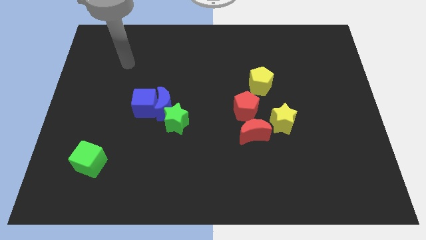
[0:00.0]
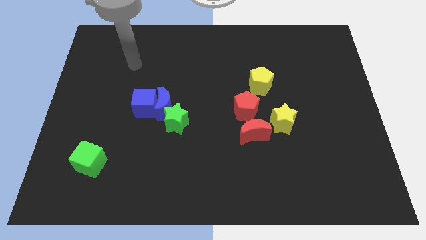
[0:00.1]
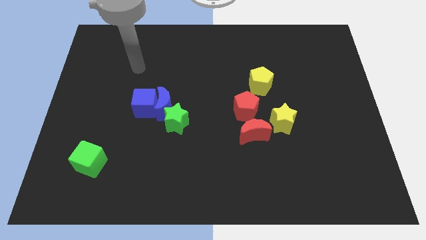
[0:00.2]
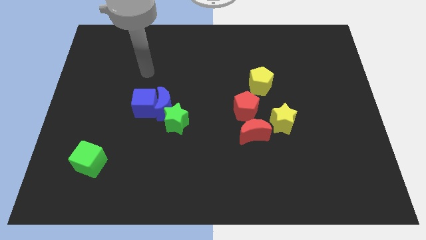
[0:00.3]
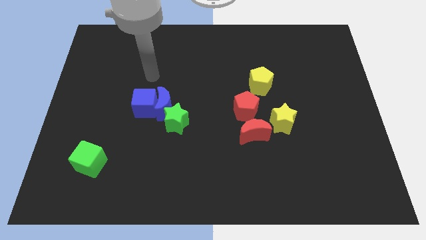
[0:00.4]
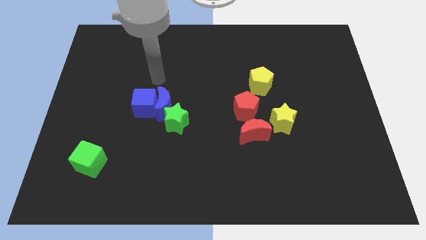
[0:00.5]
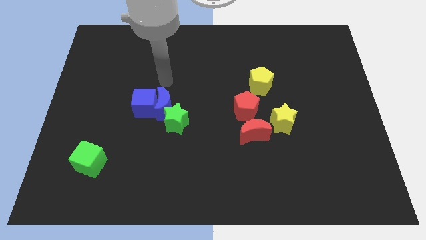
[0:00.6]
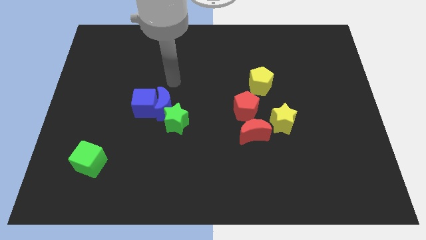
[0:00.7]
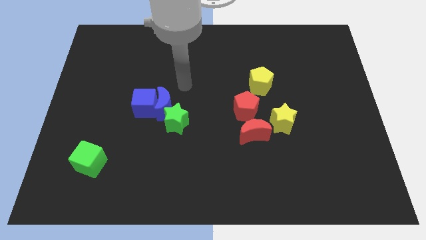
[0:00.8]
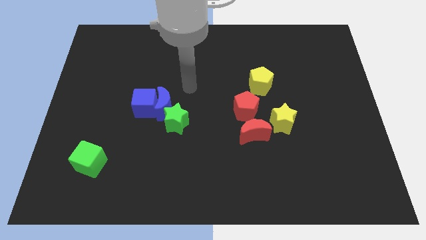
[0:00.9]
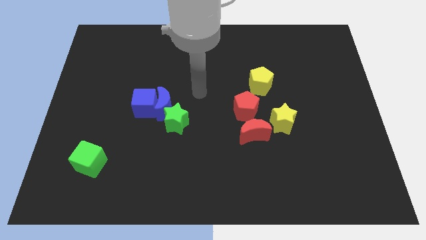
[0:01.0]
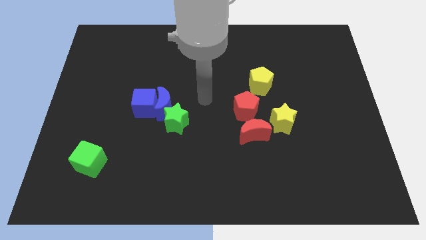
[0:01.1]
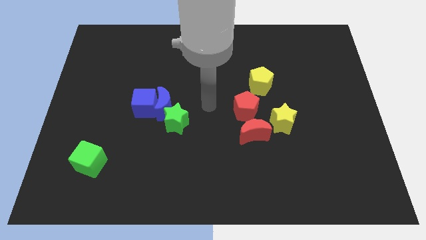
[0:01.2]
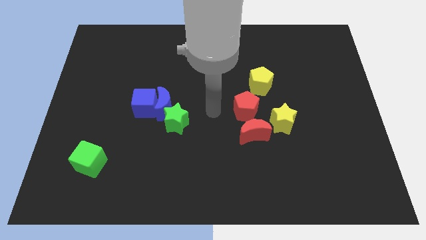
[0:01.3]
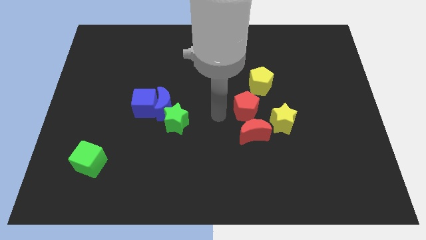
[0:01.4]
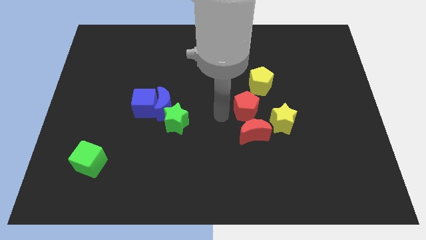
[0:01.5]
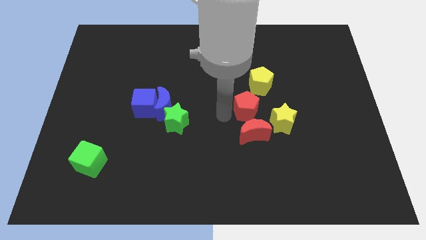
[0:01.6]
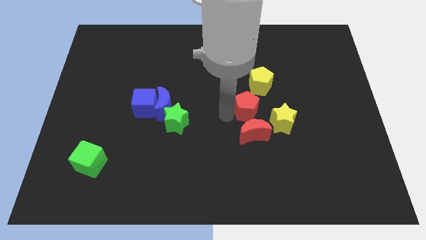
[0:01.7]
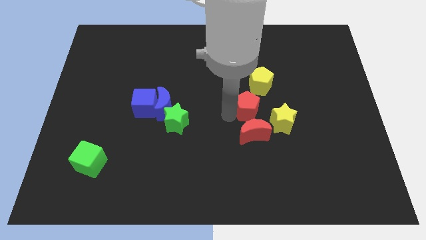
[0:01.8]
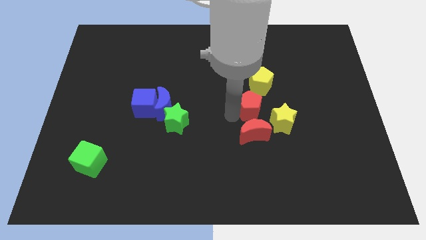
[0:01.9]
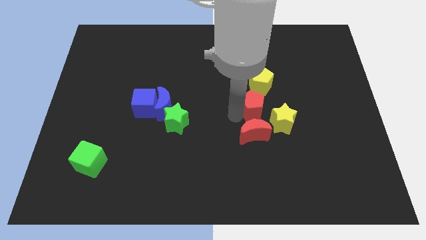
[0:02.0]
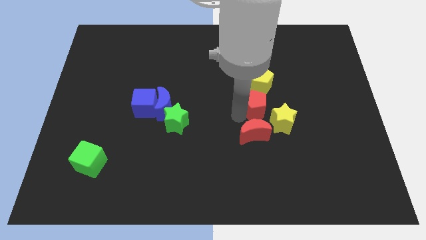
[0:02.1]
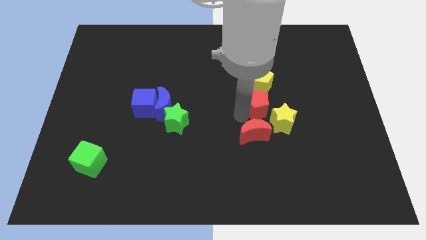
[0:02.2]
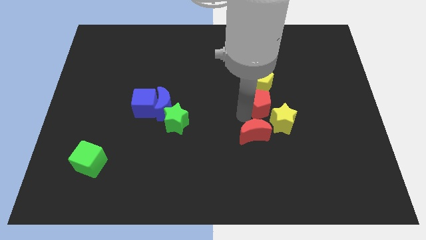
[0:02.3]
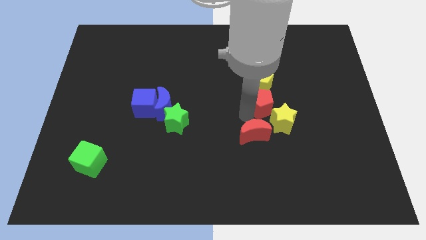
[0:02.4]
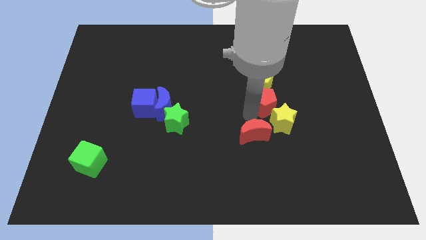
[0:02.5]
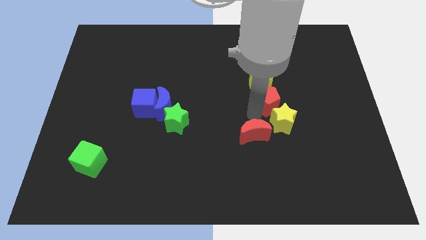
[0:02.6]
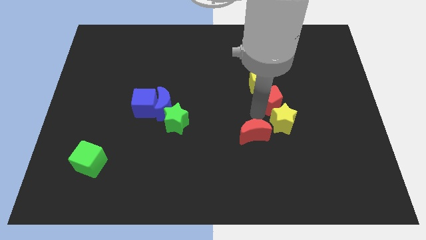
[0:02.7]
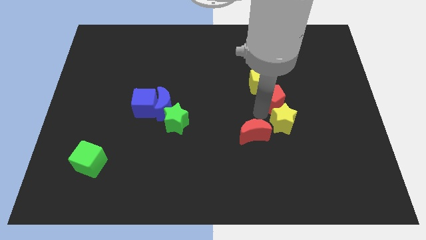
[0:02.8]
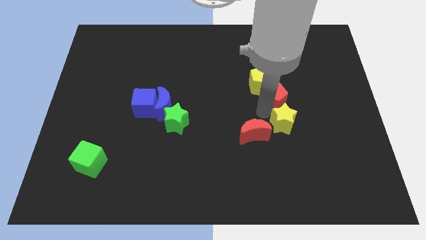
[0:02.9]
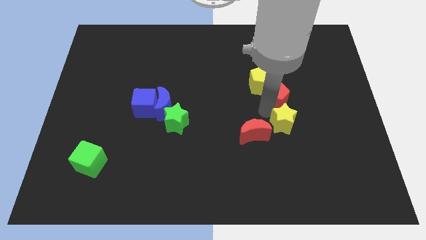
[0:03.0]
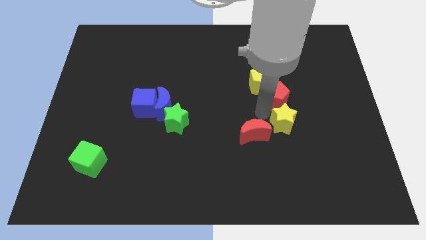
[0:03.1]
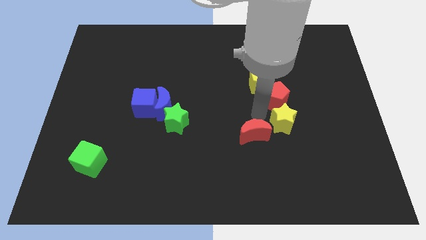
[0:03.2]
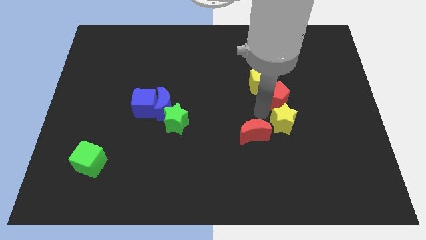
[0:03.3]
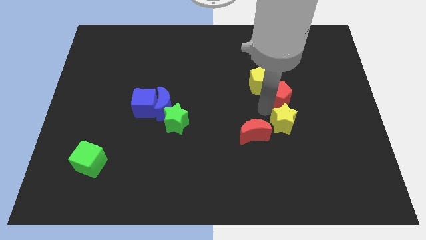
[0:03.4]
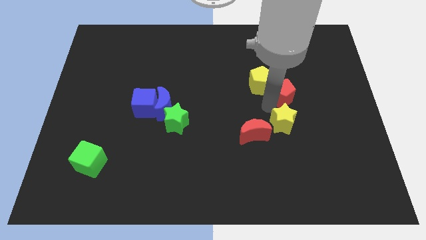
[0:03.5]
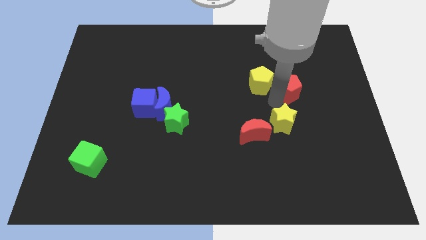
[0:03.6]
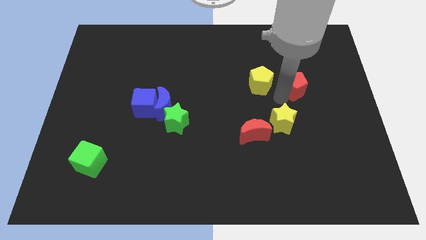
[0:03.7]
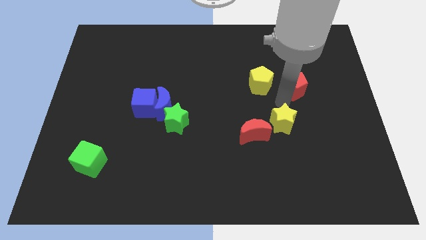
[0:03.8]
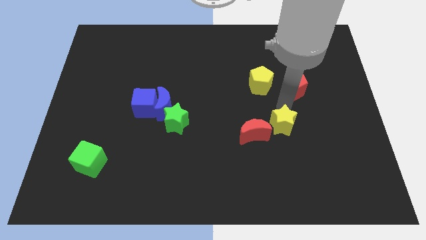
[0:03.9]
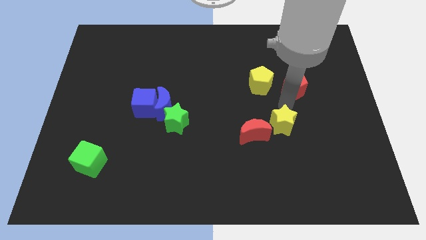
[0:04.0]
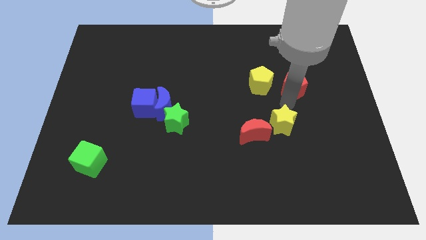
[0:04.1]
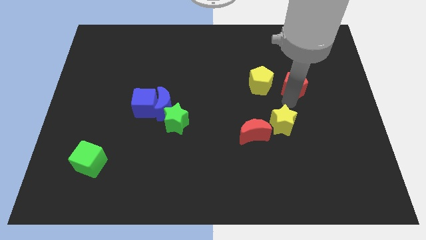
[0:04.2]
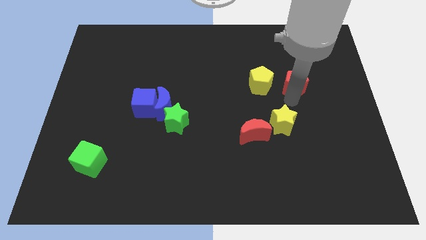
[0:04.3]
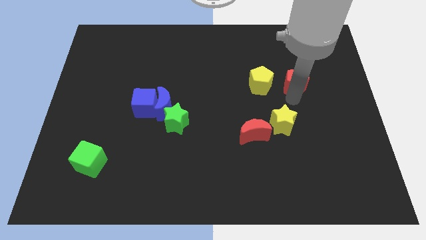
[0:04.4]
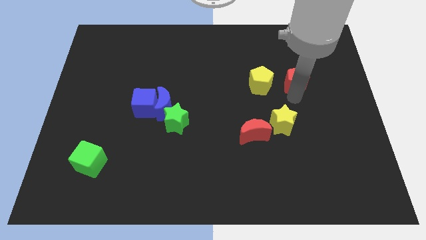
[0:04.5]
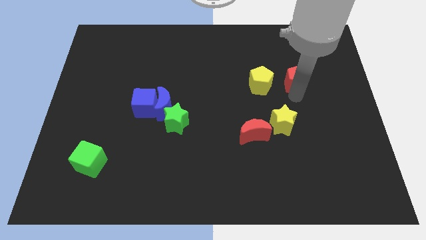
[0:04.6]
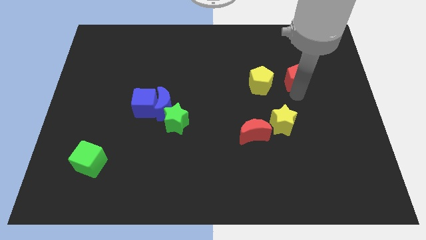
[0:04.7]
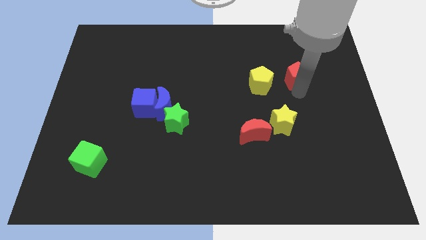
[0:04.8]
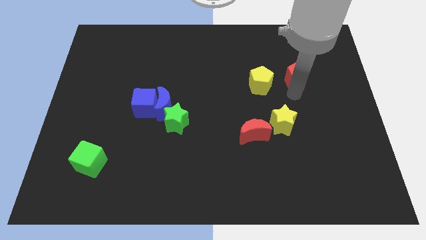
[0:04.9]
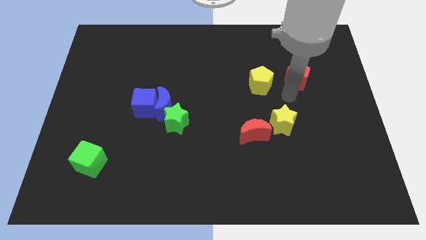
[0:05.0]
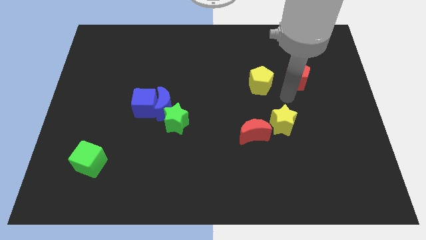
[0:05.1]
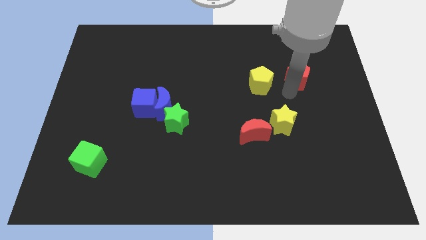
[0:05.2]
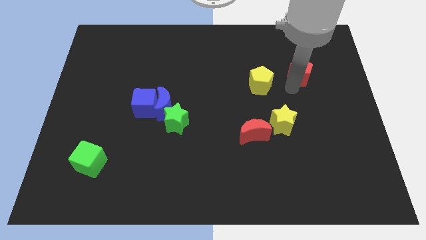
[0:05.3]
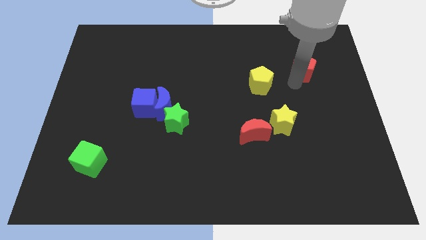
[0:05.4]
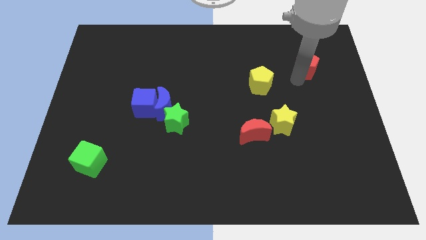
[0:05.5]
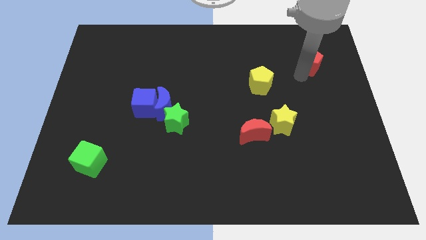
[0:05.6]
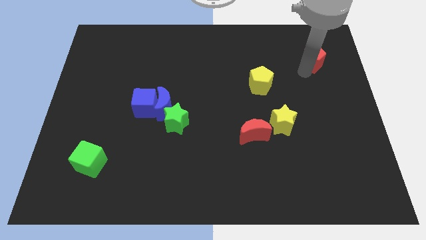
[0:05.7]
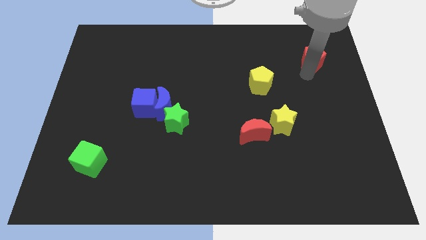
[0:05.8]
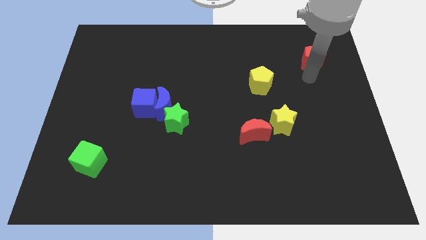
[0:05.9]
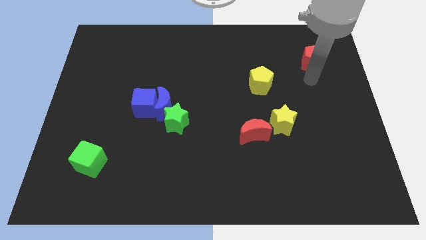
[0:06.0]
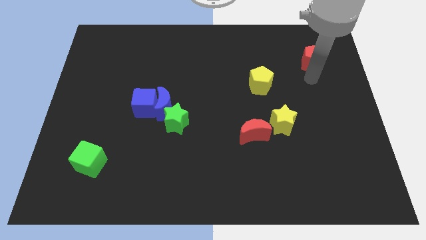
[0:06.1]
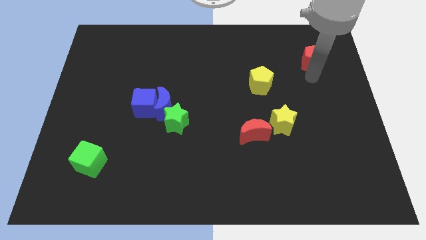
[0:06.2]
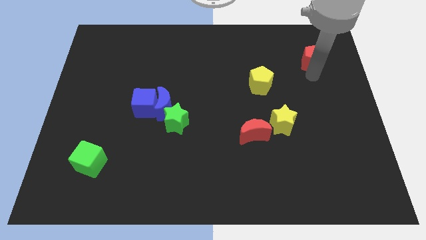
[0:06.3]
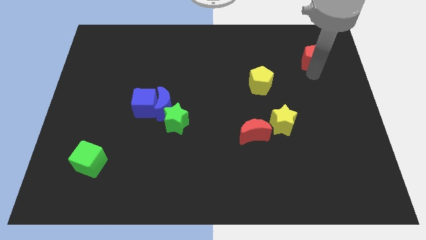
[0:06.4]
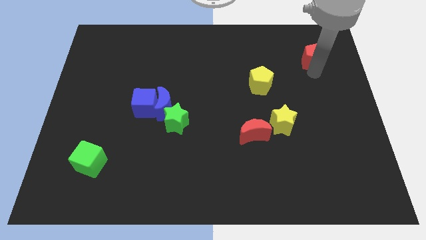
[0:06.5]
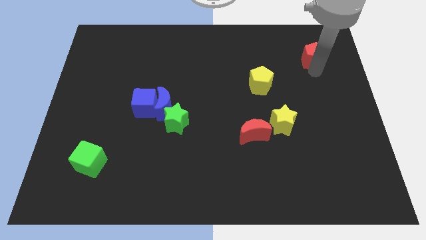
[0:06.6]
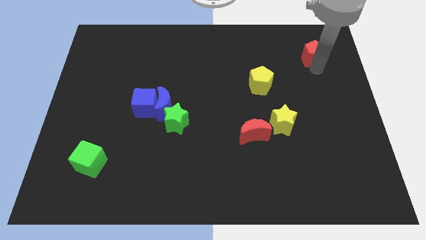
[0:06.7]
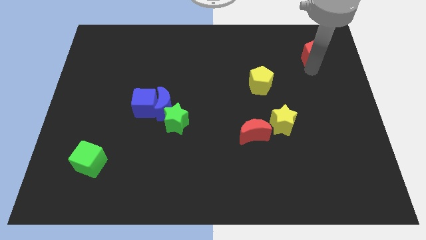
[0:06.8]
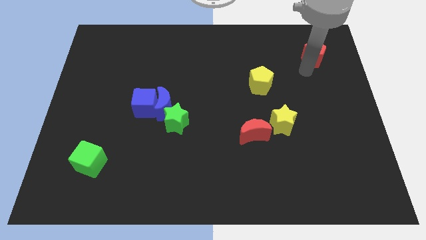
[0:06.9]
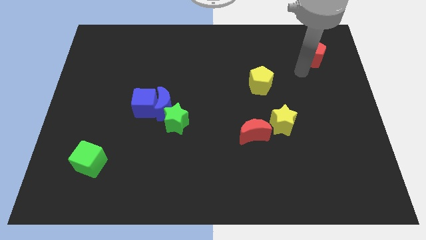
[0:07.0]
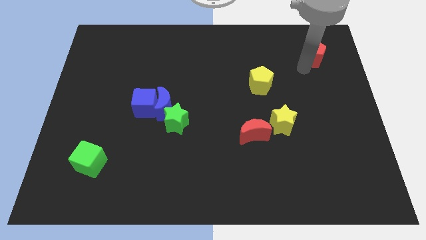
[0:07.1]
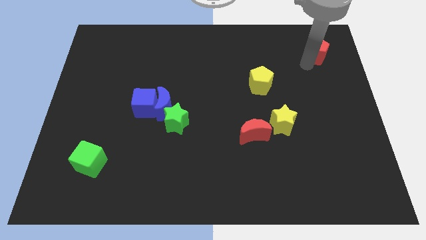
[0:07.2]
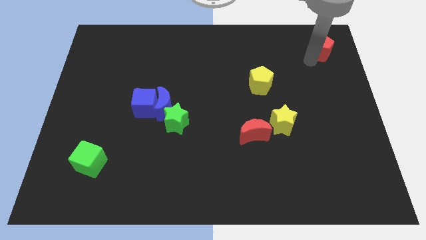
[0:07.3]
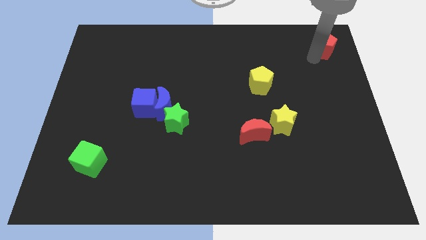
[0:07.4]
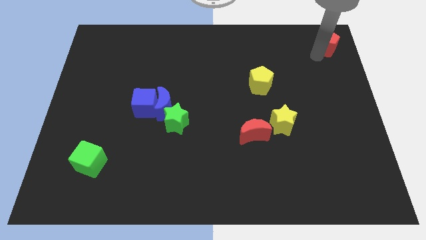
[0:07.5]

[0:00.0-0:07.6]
move the red pentagon to the upper right corner
